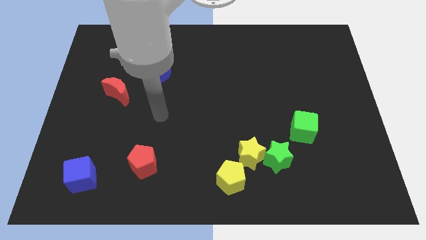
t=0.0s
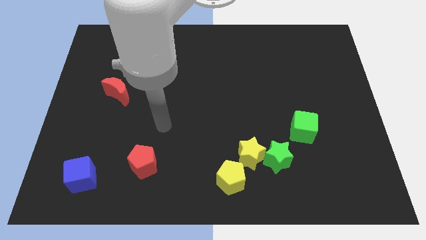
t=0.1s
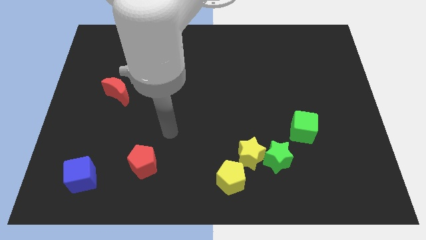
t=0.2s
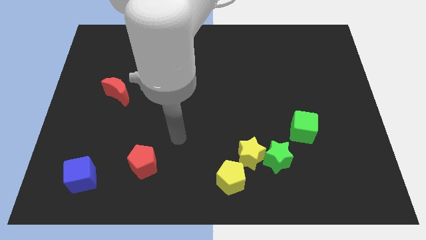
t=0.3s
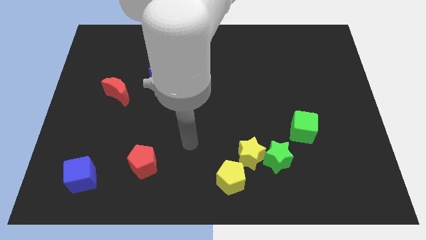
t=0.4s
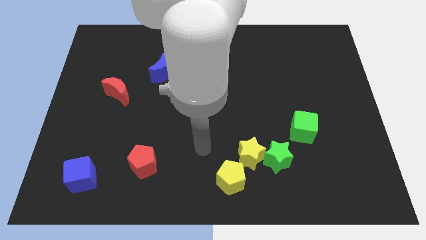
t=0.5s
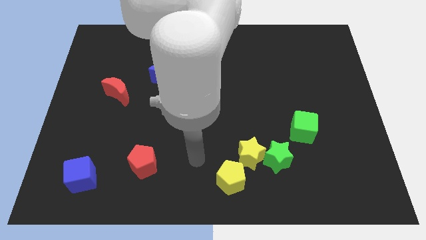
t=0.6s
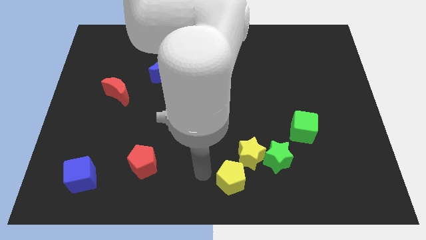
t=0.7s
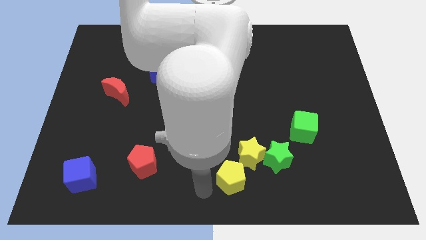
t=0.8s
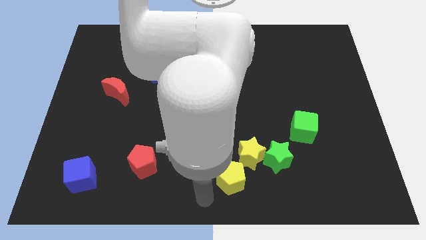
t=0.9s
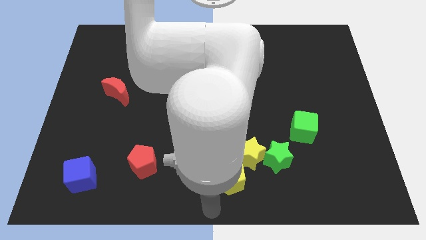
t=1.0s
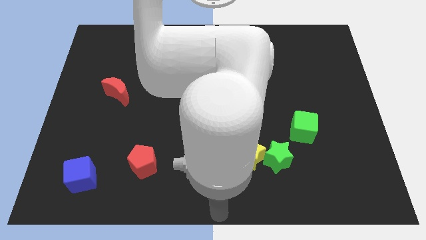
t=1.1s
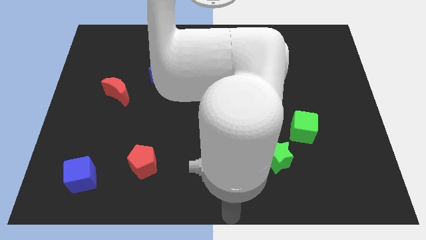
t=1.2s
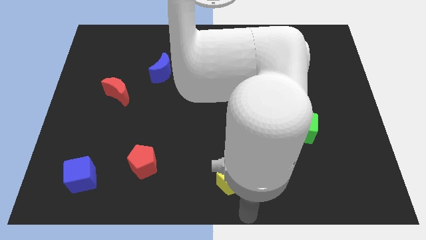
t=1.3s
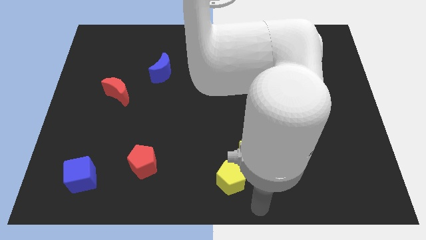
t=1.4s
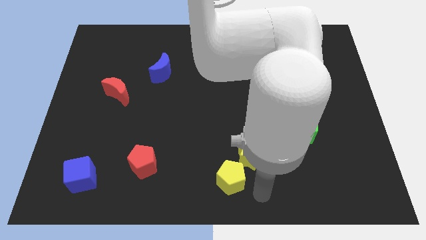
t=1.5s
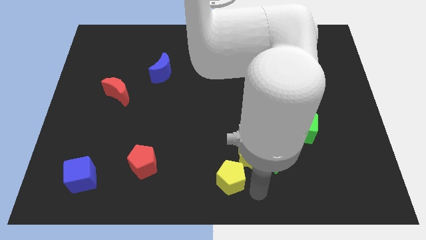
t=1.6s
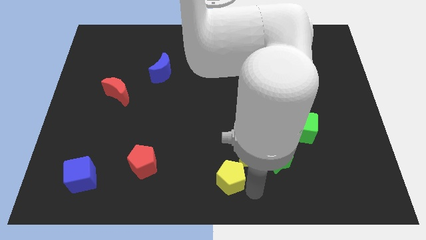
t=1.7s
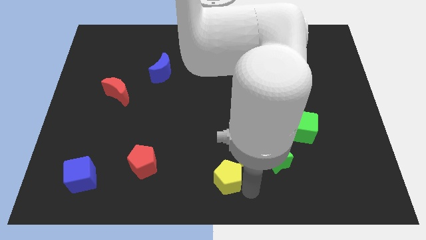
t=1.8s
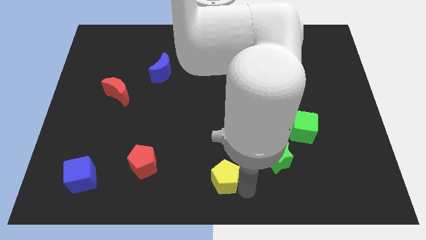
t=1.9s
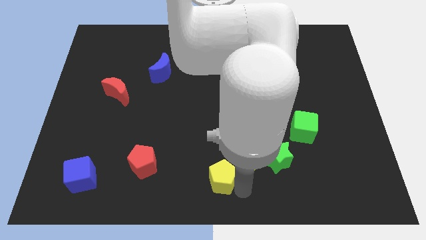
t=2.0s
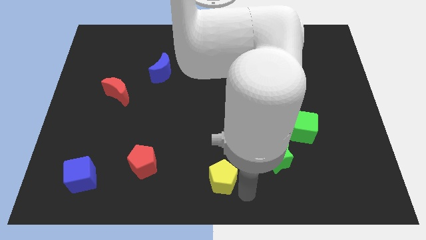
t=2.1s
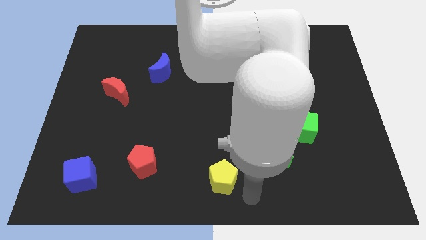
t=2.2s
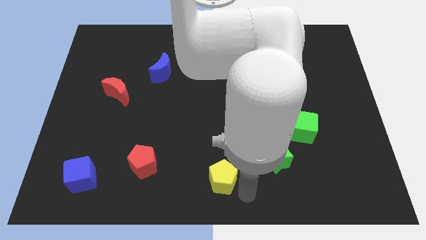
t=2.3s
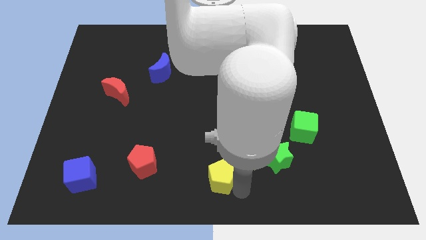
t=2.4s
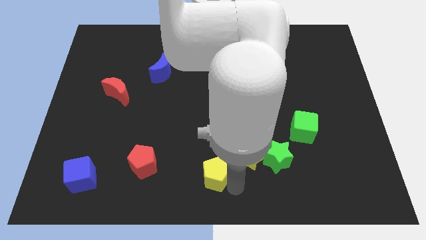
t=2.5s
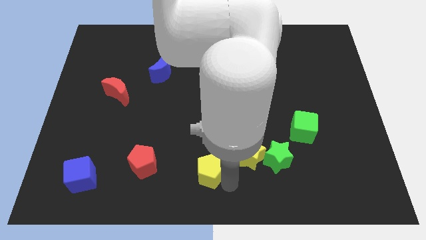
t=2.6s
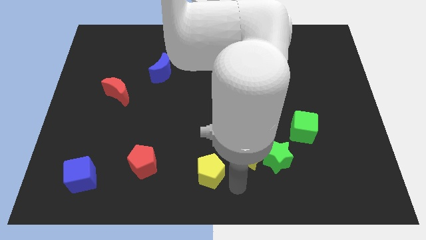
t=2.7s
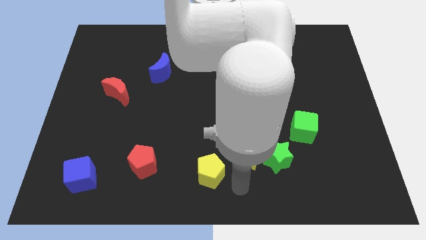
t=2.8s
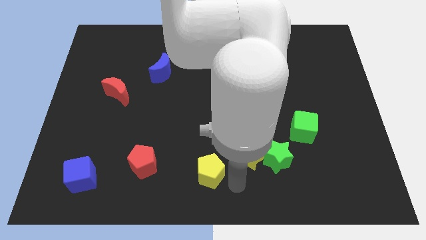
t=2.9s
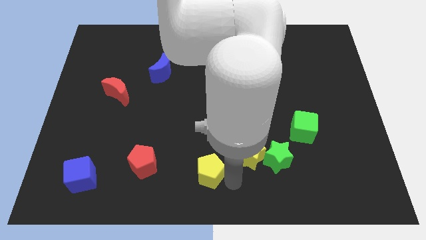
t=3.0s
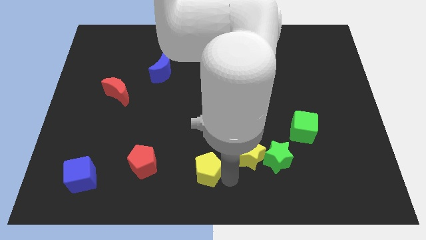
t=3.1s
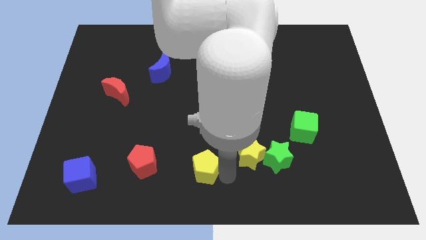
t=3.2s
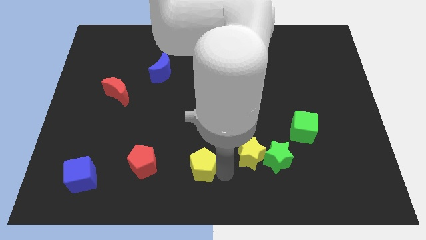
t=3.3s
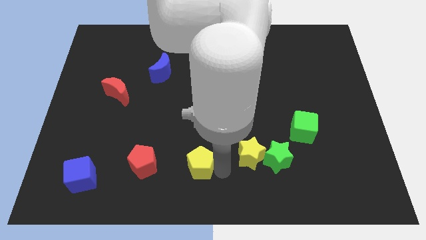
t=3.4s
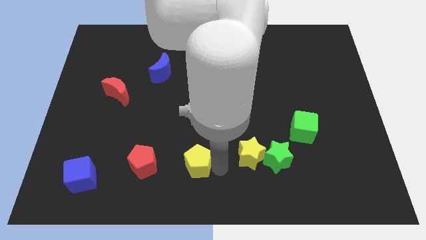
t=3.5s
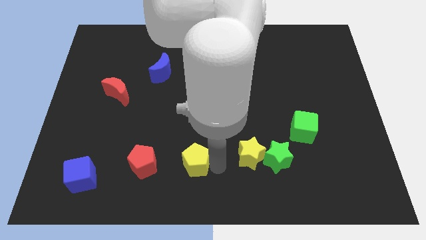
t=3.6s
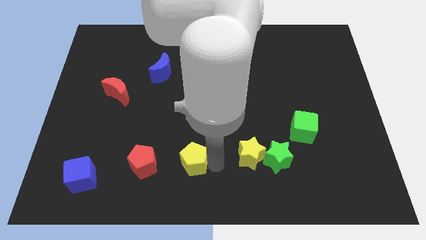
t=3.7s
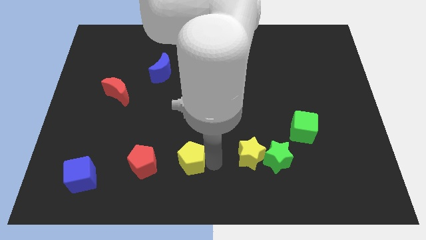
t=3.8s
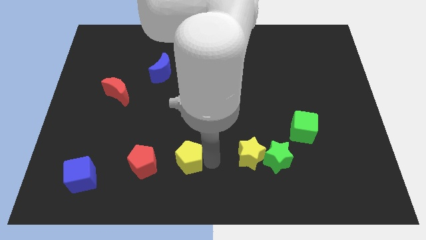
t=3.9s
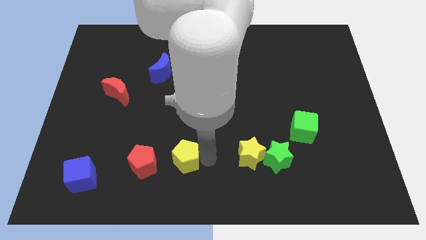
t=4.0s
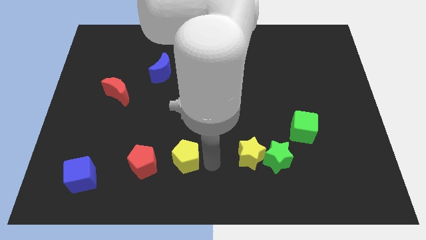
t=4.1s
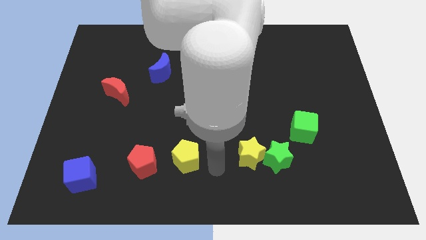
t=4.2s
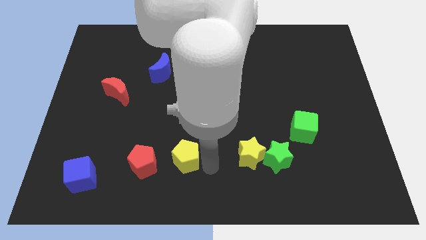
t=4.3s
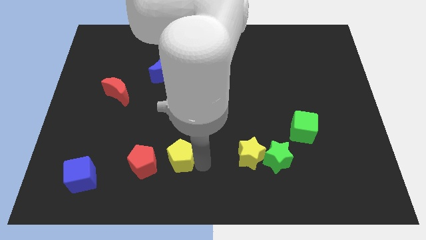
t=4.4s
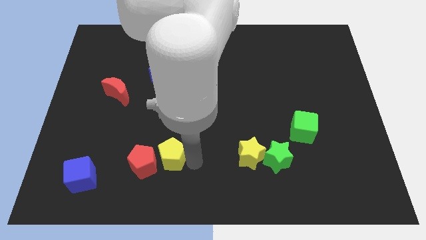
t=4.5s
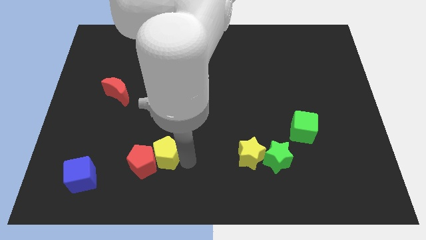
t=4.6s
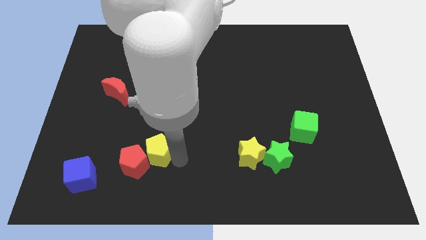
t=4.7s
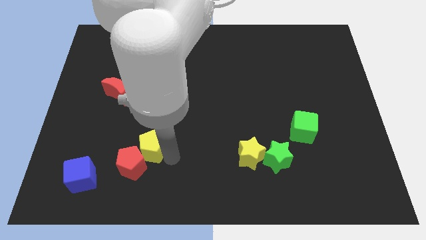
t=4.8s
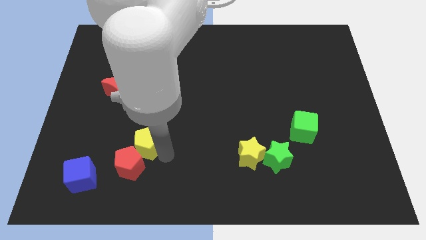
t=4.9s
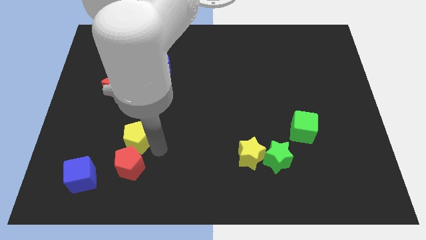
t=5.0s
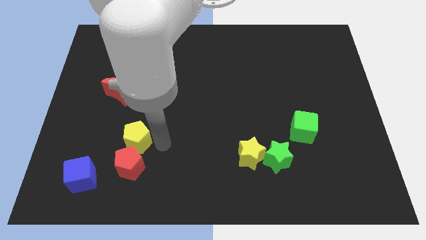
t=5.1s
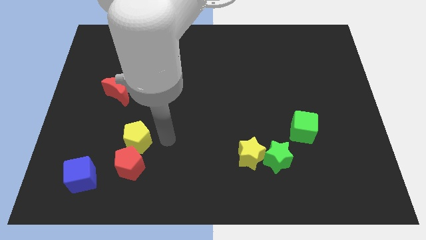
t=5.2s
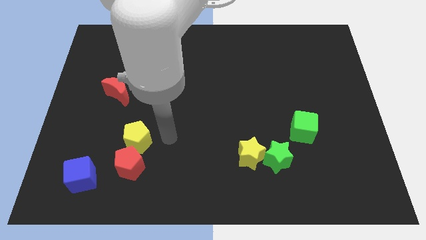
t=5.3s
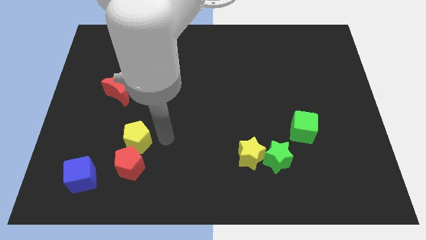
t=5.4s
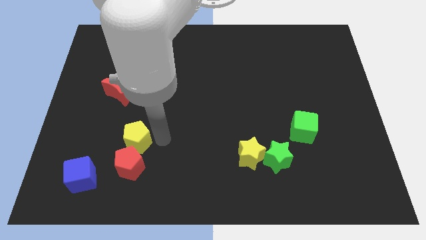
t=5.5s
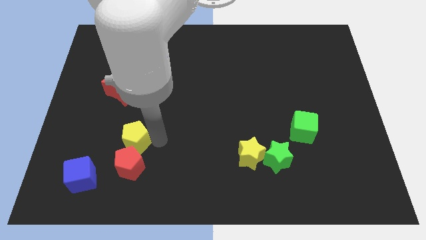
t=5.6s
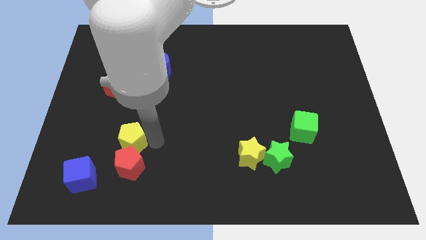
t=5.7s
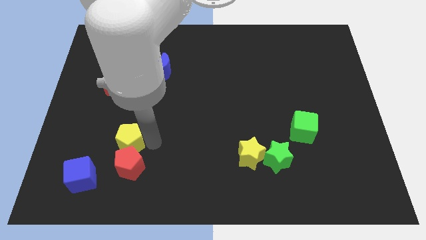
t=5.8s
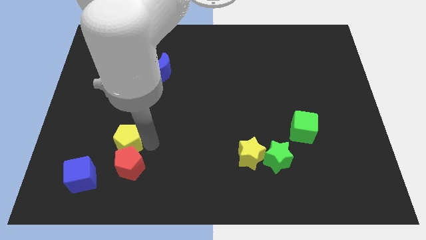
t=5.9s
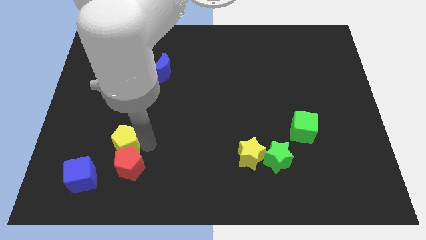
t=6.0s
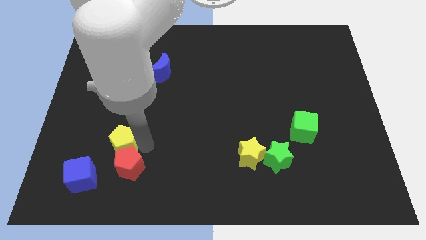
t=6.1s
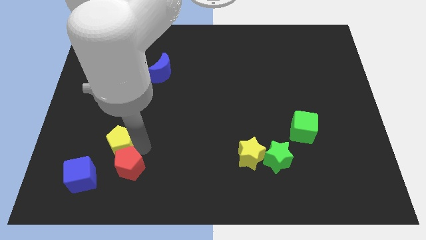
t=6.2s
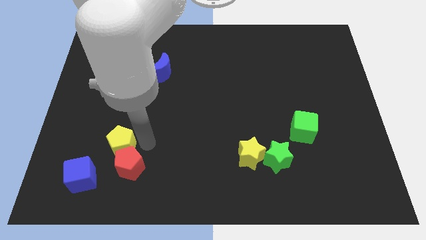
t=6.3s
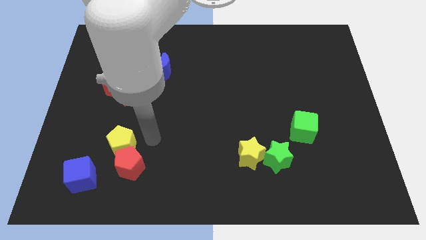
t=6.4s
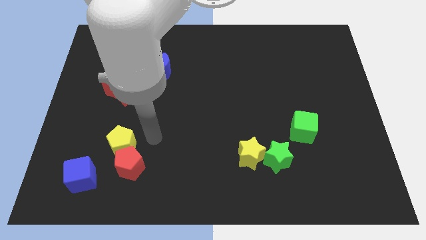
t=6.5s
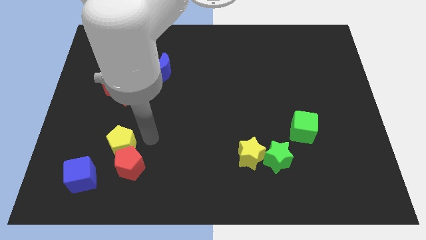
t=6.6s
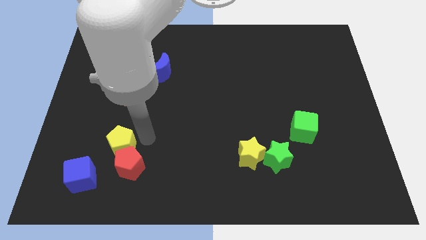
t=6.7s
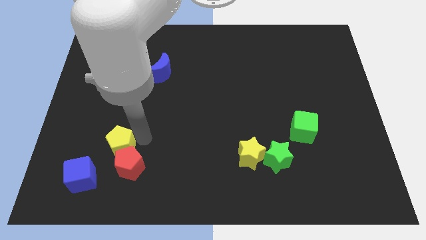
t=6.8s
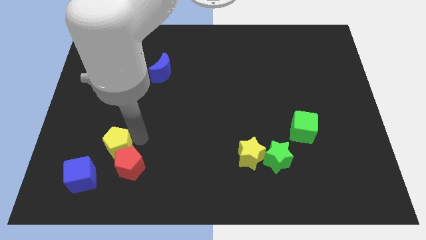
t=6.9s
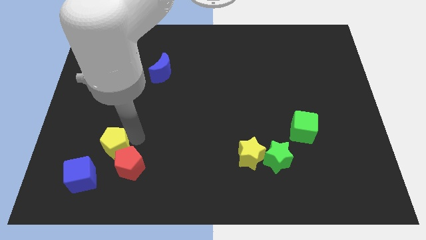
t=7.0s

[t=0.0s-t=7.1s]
move the yellow pentagon just left of the red pentagon

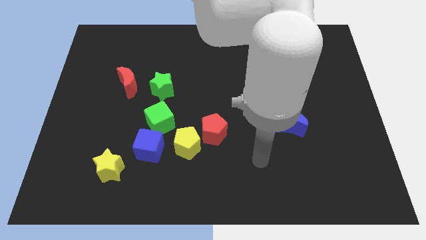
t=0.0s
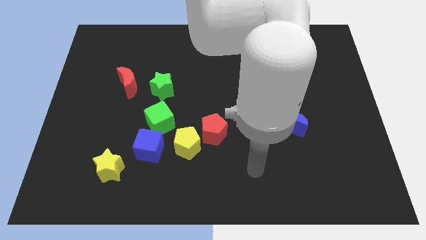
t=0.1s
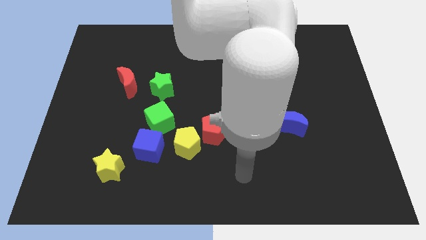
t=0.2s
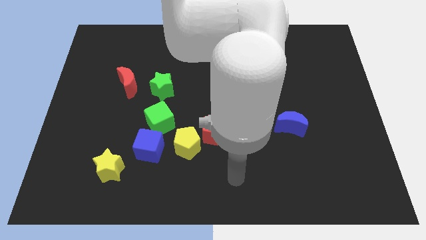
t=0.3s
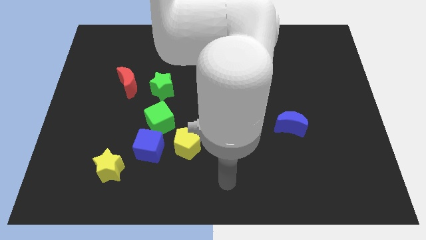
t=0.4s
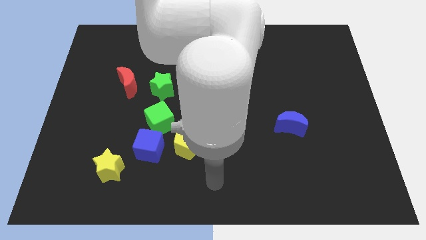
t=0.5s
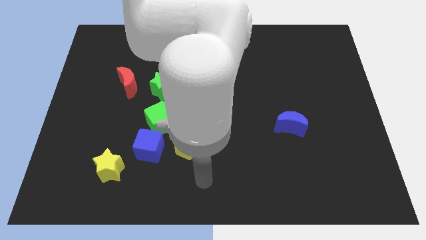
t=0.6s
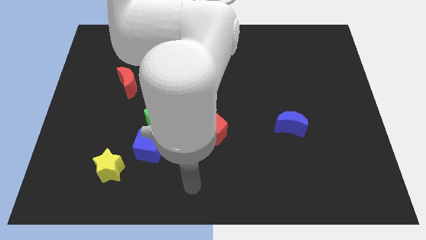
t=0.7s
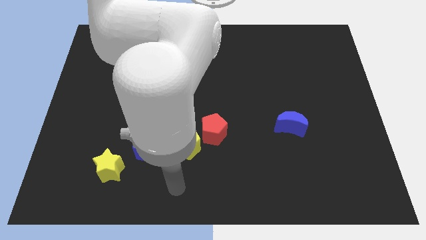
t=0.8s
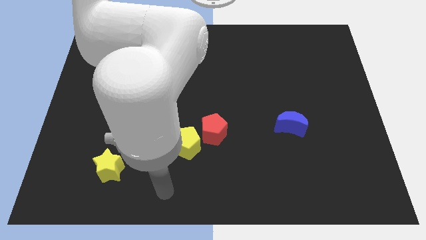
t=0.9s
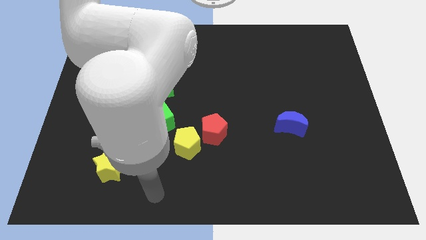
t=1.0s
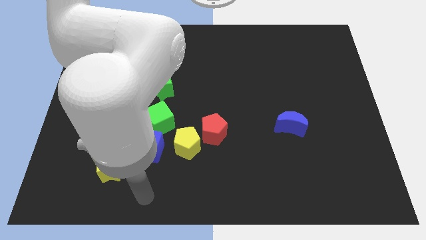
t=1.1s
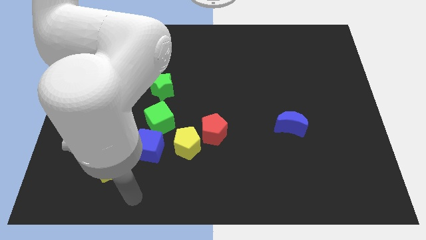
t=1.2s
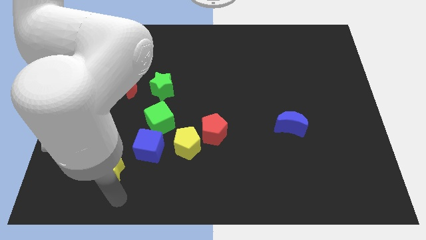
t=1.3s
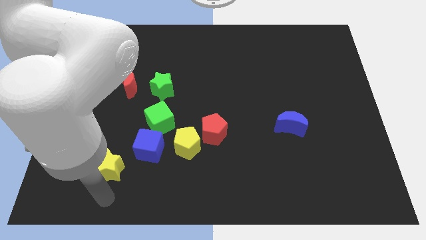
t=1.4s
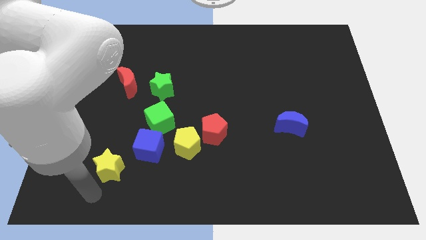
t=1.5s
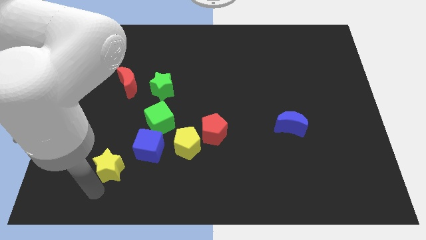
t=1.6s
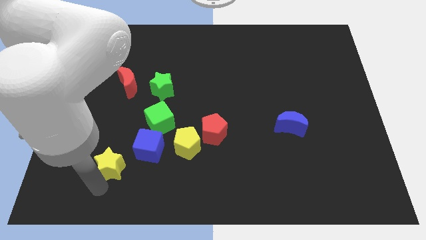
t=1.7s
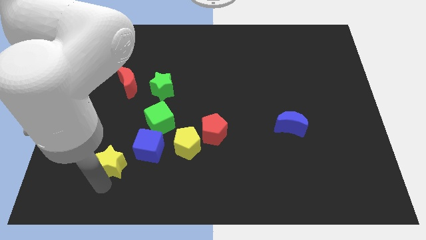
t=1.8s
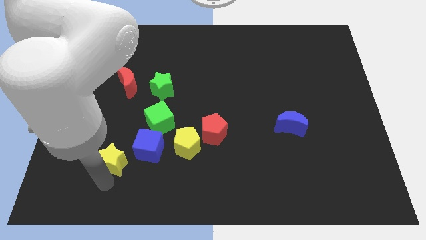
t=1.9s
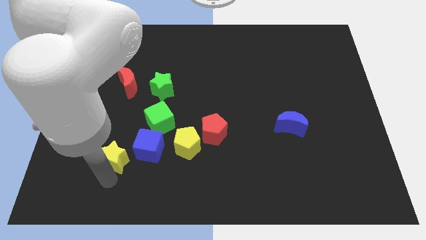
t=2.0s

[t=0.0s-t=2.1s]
push the yellow star diagonally down and to the left of the green cube
